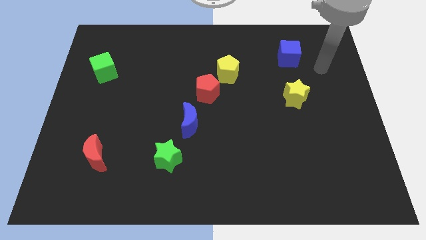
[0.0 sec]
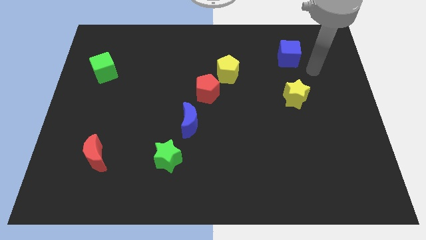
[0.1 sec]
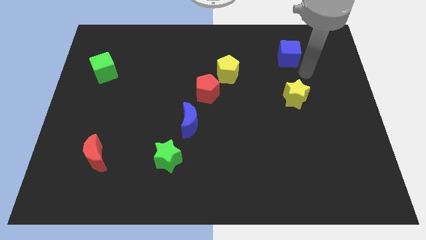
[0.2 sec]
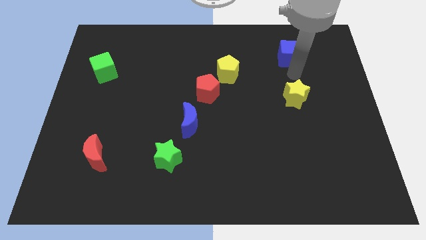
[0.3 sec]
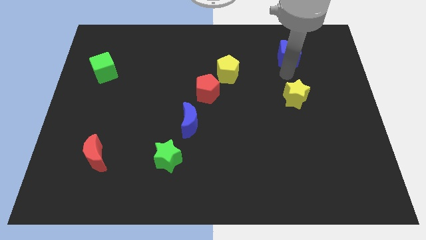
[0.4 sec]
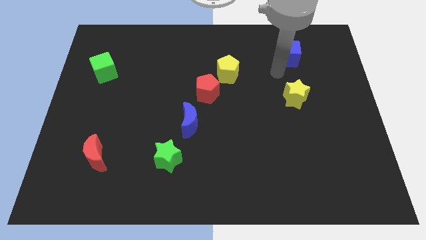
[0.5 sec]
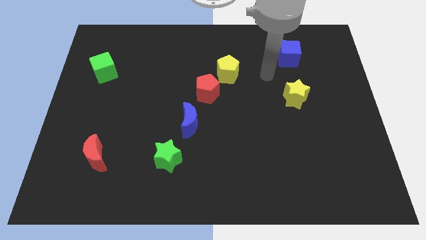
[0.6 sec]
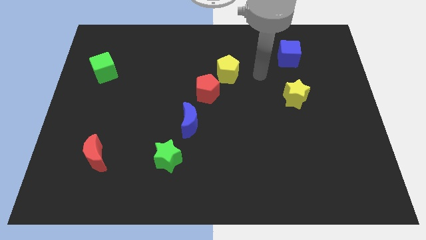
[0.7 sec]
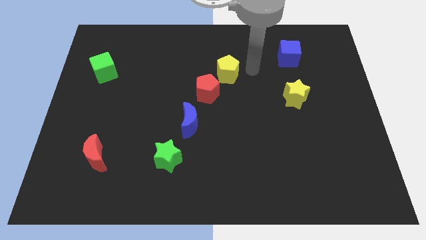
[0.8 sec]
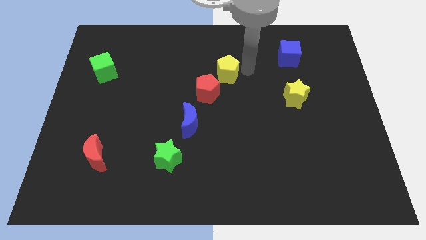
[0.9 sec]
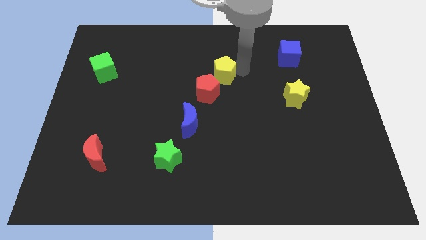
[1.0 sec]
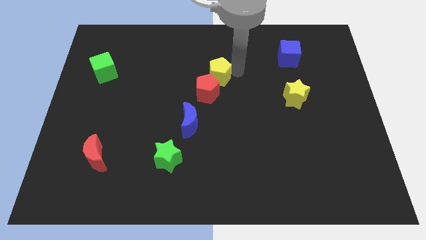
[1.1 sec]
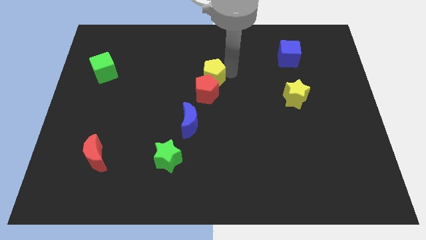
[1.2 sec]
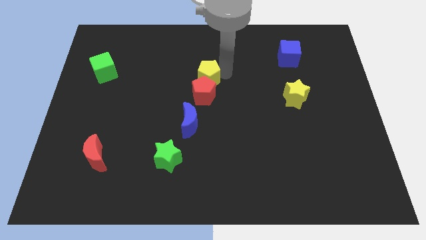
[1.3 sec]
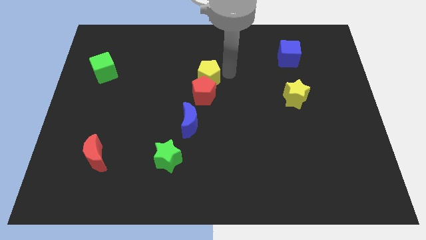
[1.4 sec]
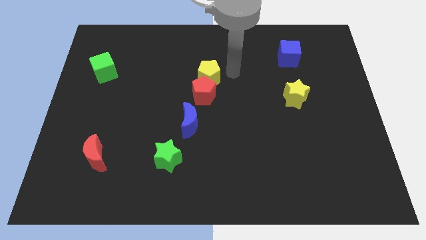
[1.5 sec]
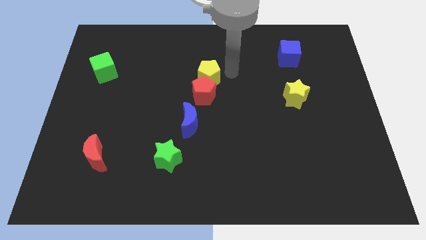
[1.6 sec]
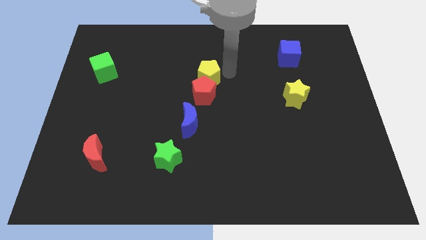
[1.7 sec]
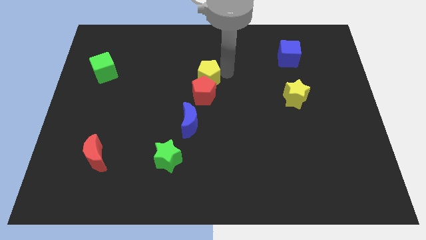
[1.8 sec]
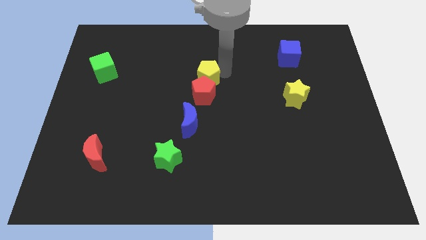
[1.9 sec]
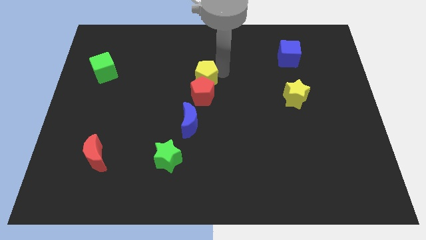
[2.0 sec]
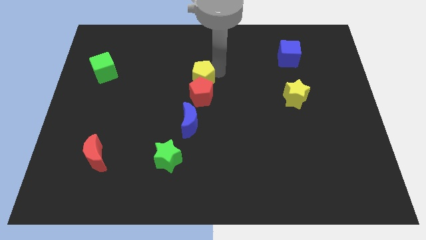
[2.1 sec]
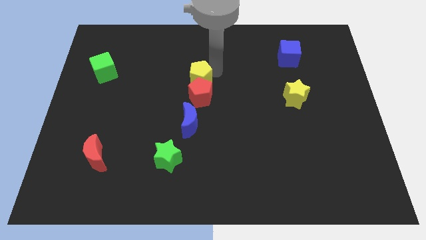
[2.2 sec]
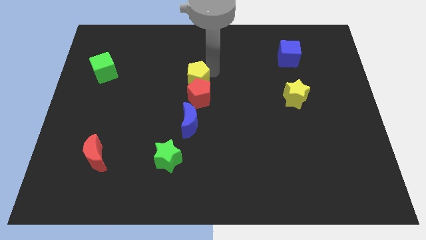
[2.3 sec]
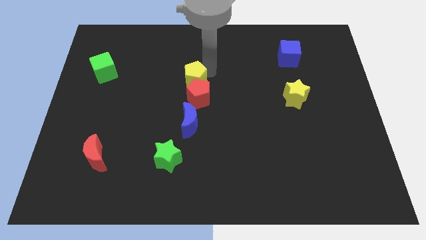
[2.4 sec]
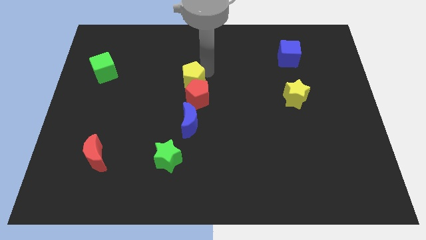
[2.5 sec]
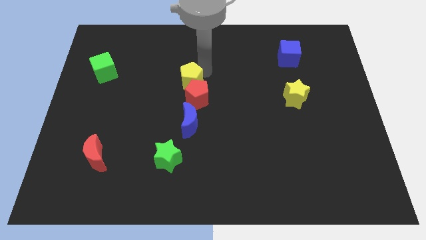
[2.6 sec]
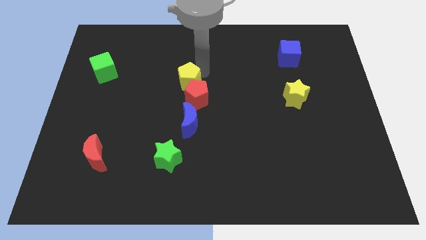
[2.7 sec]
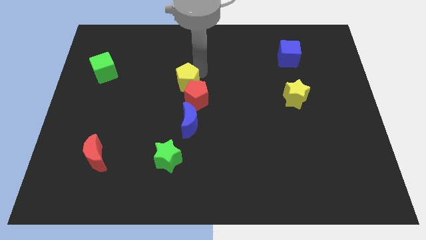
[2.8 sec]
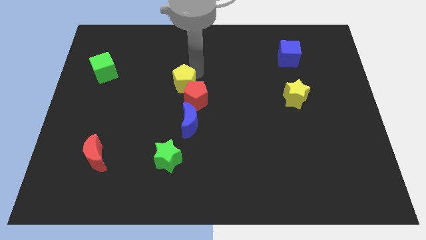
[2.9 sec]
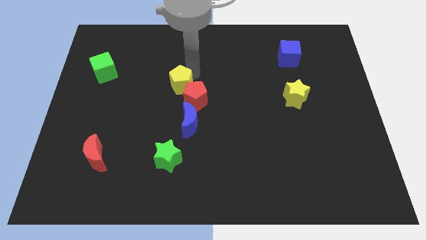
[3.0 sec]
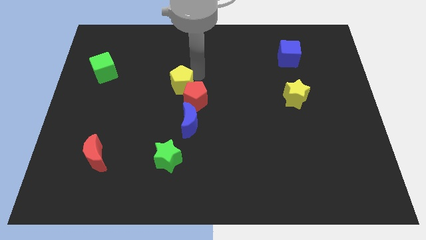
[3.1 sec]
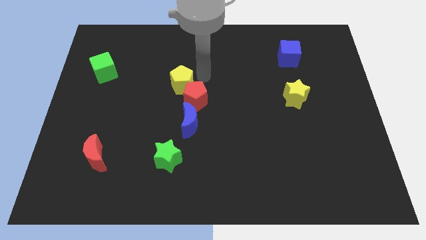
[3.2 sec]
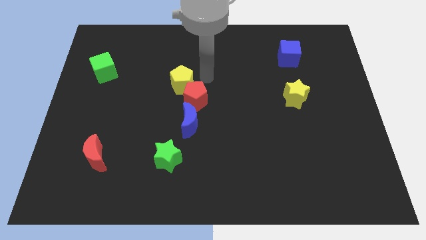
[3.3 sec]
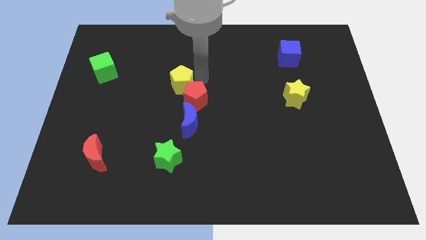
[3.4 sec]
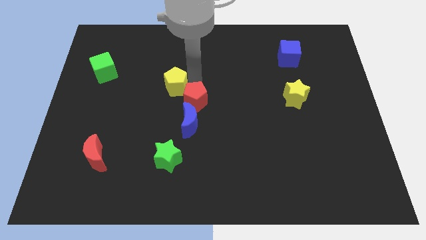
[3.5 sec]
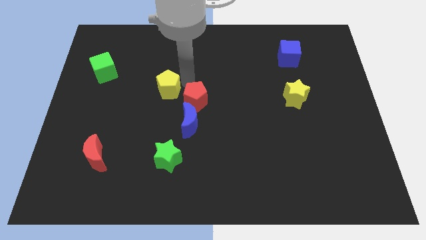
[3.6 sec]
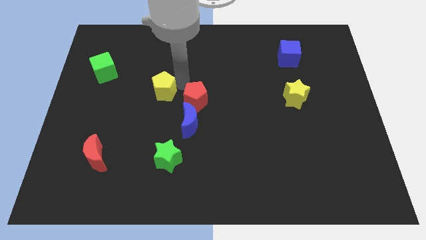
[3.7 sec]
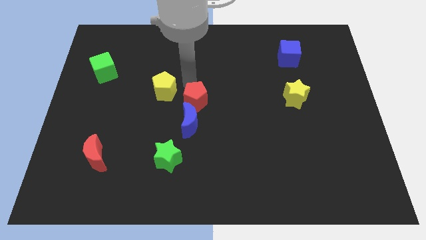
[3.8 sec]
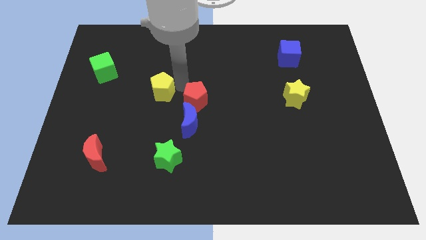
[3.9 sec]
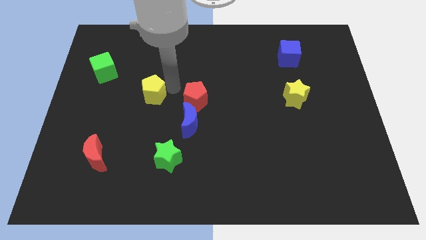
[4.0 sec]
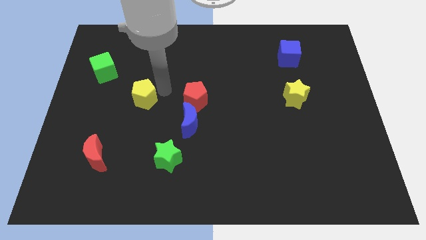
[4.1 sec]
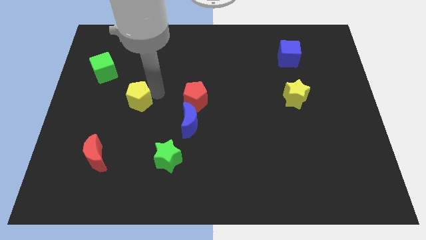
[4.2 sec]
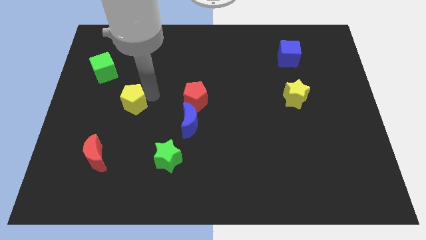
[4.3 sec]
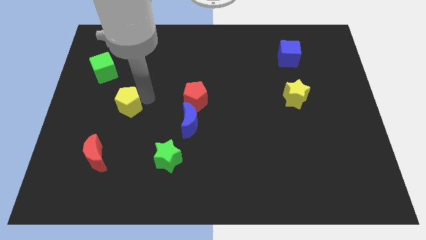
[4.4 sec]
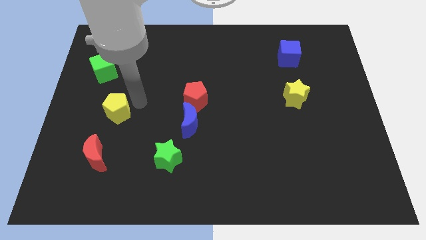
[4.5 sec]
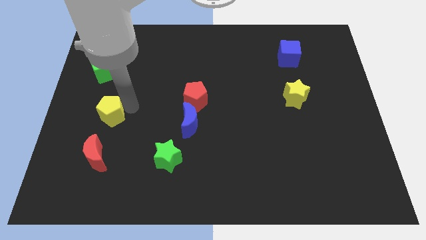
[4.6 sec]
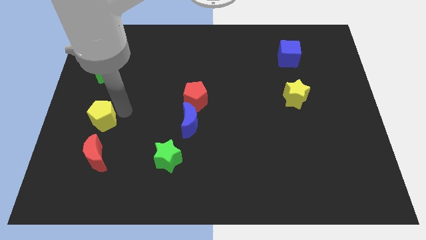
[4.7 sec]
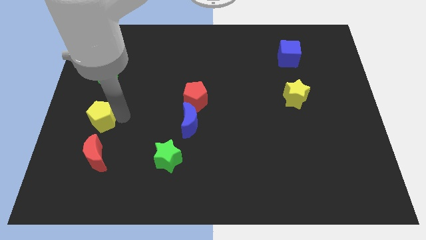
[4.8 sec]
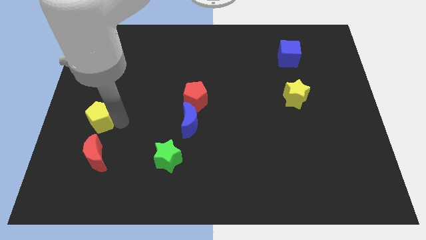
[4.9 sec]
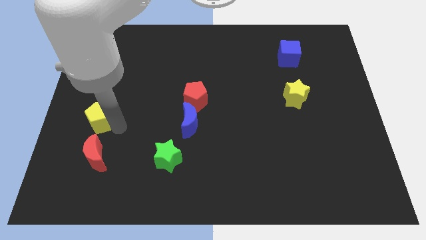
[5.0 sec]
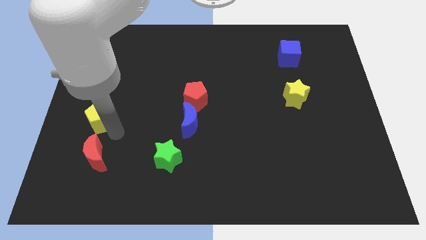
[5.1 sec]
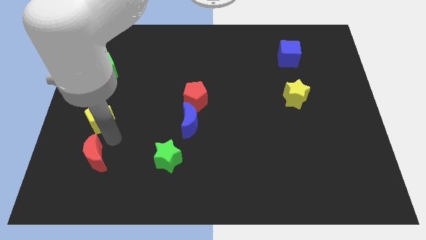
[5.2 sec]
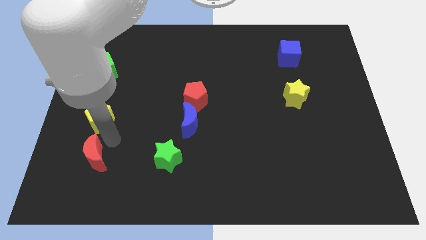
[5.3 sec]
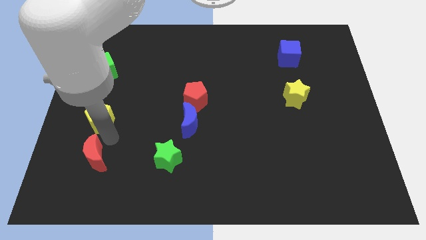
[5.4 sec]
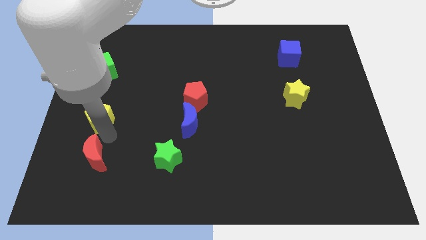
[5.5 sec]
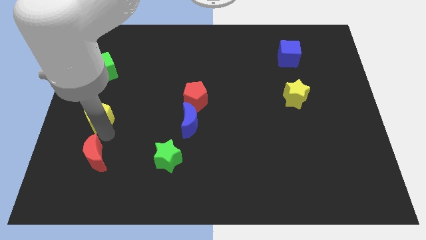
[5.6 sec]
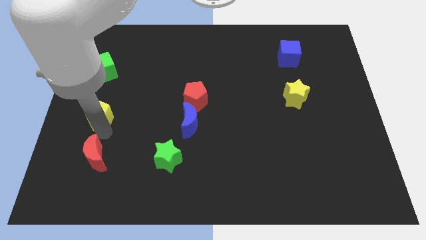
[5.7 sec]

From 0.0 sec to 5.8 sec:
move the yellow pentagon to the left side of the board

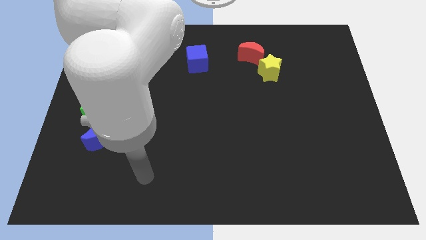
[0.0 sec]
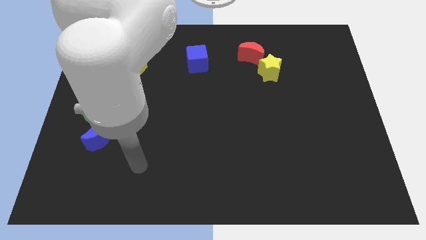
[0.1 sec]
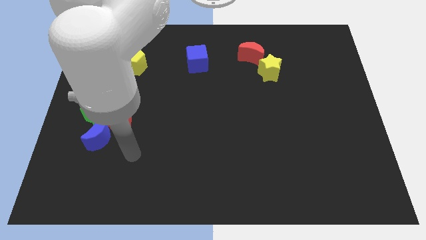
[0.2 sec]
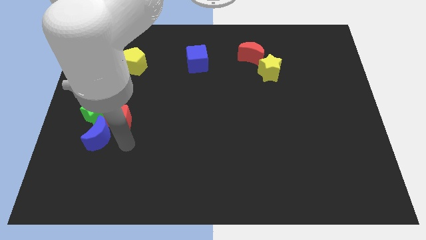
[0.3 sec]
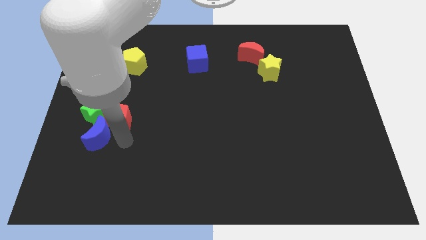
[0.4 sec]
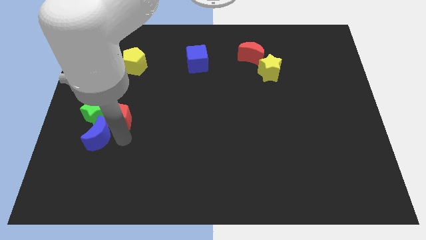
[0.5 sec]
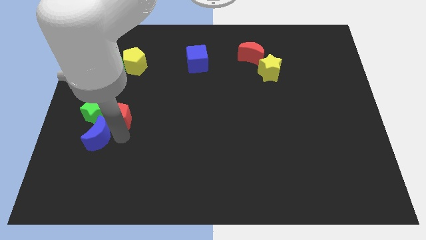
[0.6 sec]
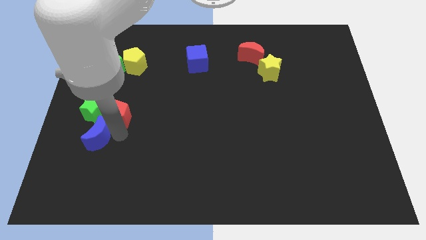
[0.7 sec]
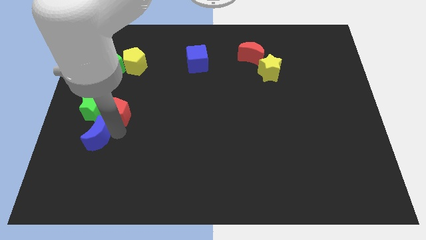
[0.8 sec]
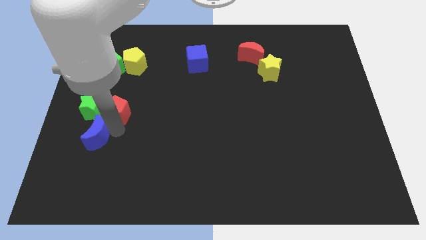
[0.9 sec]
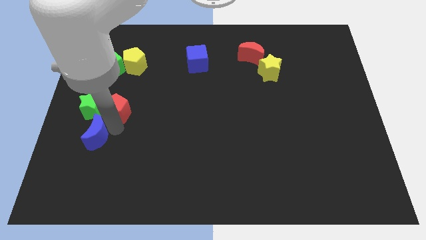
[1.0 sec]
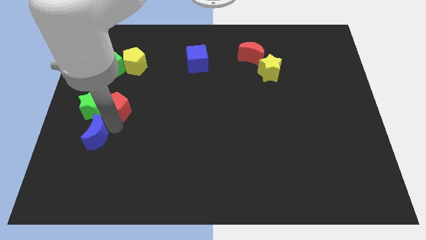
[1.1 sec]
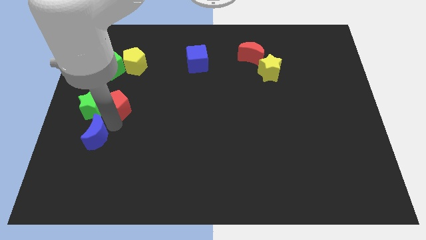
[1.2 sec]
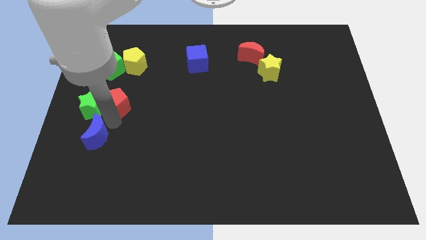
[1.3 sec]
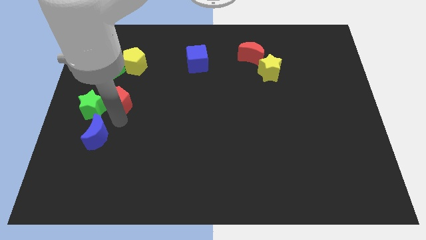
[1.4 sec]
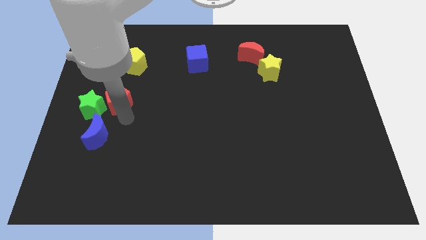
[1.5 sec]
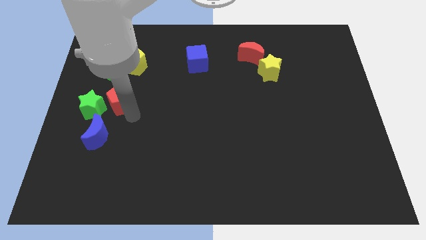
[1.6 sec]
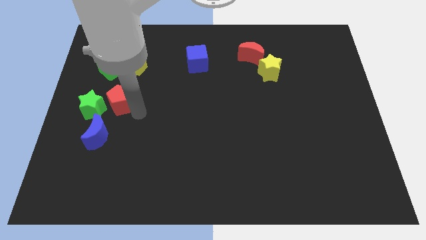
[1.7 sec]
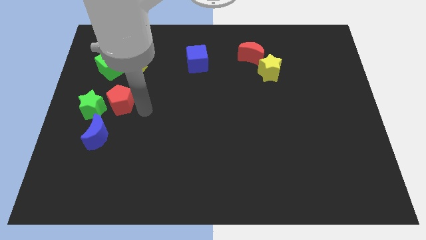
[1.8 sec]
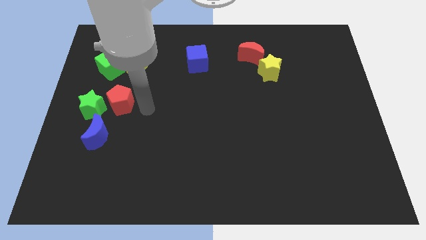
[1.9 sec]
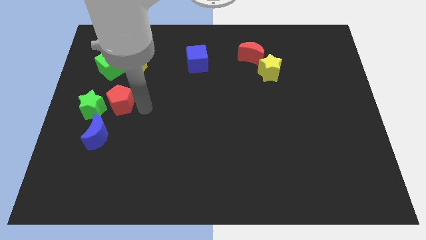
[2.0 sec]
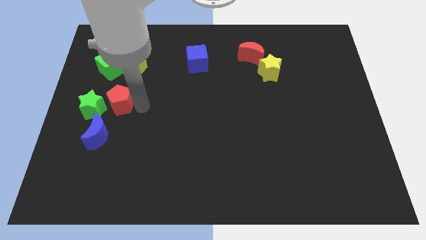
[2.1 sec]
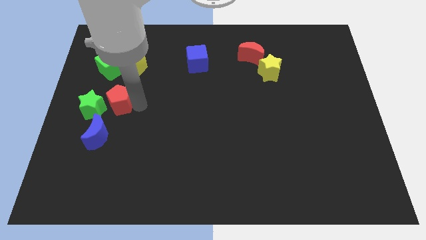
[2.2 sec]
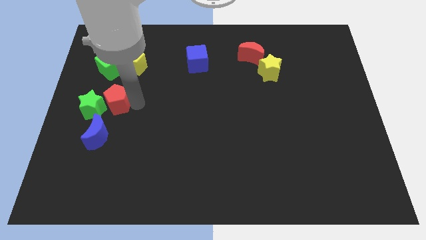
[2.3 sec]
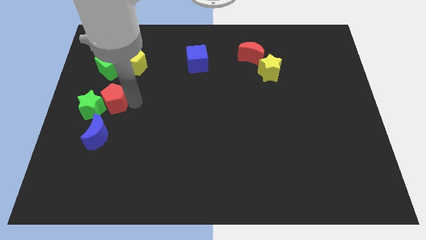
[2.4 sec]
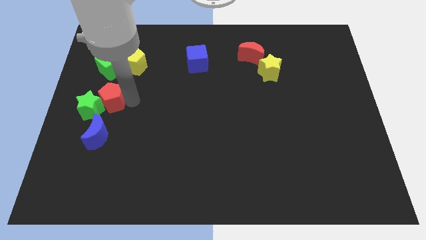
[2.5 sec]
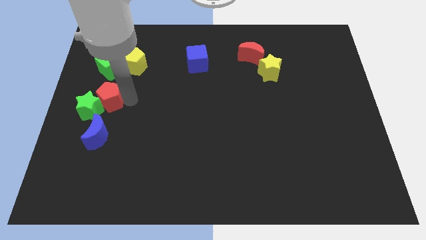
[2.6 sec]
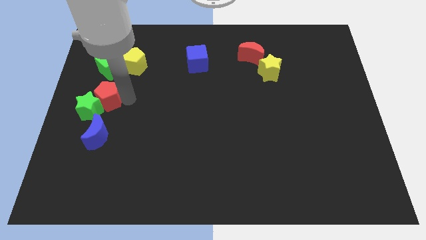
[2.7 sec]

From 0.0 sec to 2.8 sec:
put the red pentagon to the left side of the board
